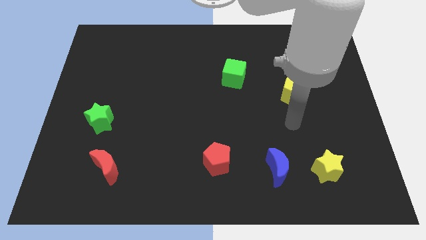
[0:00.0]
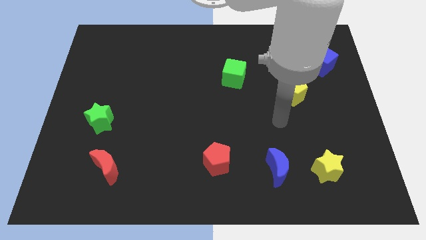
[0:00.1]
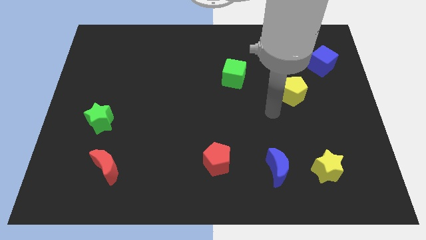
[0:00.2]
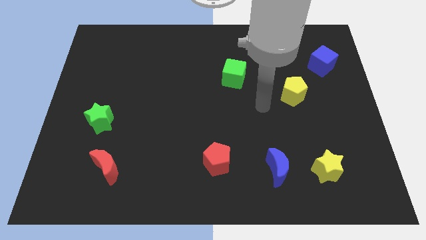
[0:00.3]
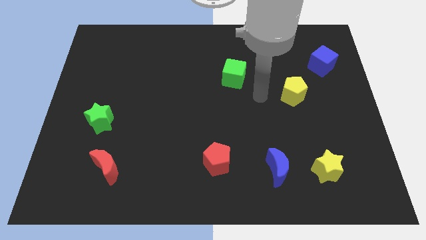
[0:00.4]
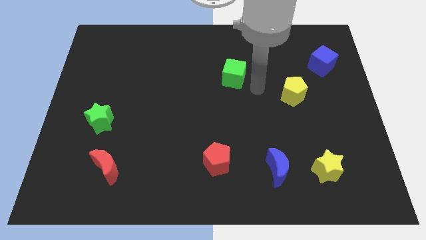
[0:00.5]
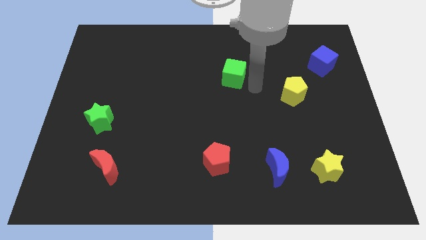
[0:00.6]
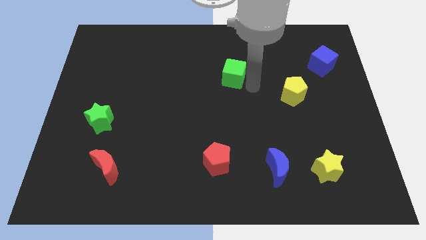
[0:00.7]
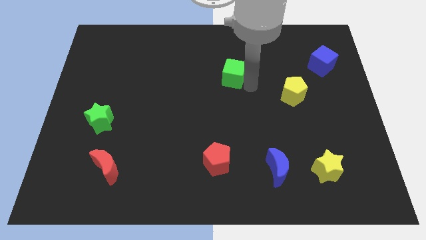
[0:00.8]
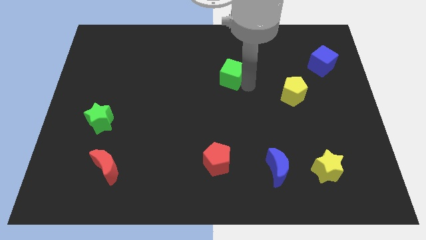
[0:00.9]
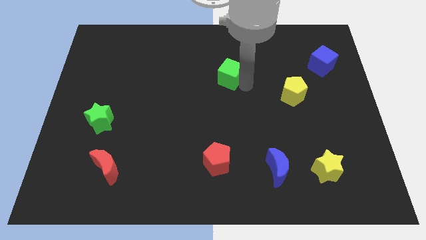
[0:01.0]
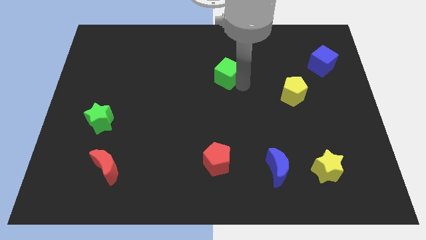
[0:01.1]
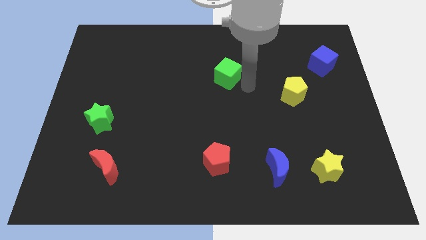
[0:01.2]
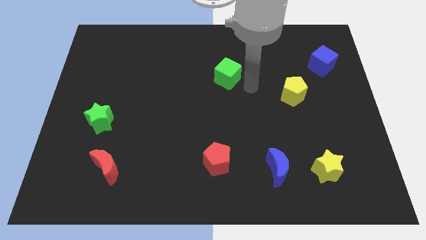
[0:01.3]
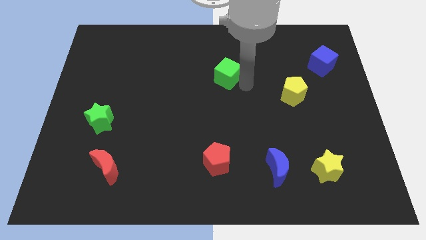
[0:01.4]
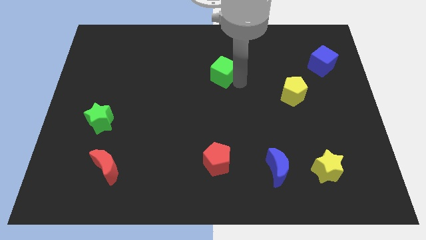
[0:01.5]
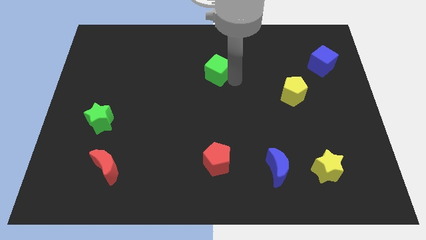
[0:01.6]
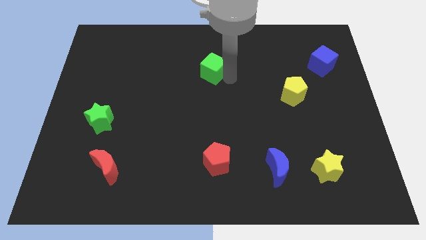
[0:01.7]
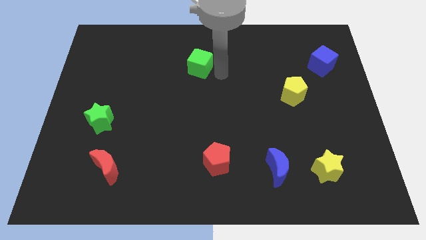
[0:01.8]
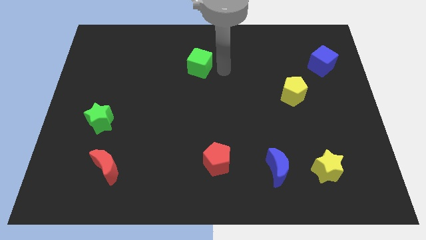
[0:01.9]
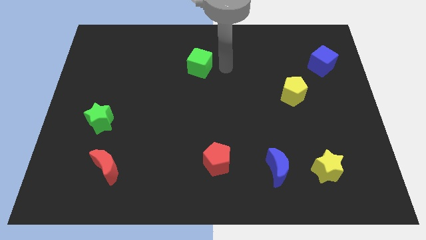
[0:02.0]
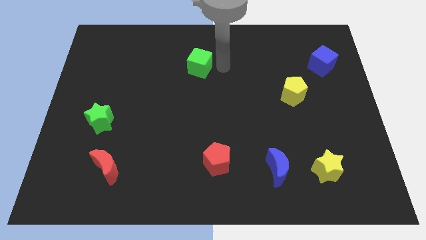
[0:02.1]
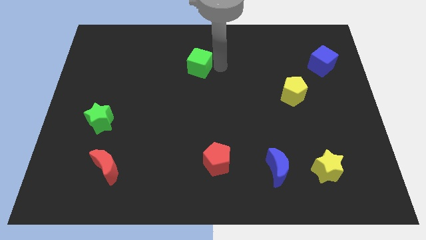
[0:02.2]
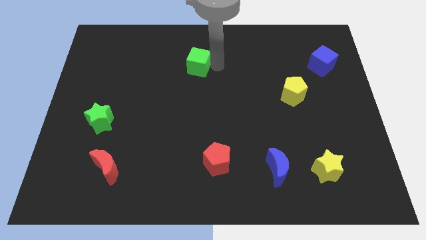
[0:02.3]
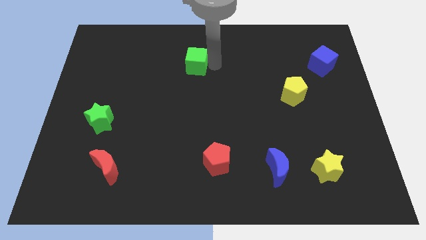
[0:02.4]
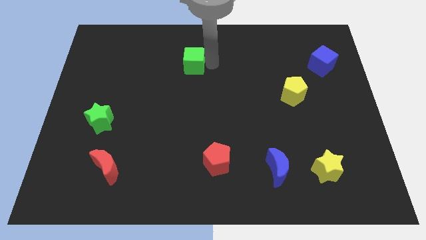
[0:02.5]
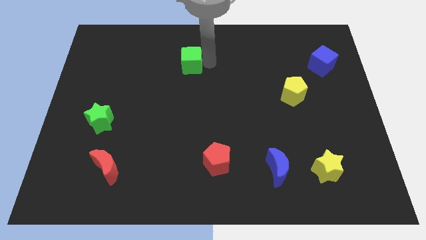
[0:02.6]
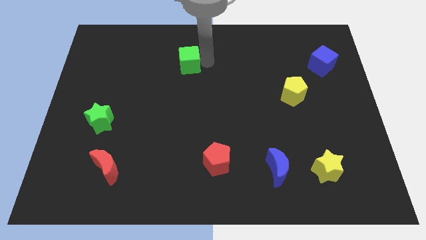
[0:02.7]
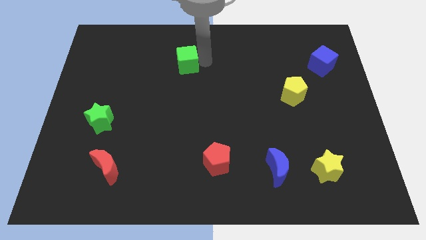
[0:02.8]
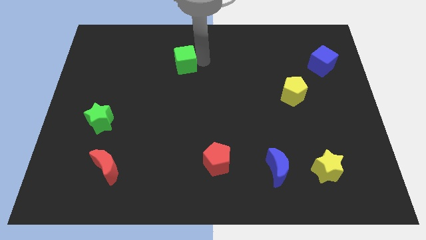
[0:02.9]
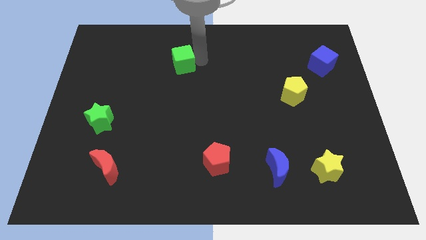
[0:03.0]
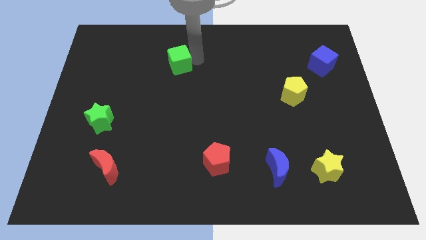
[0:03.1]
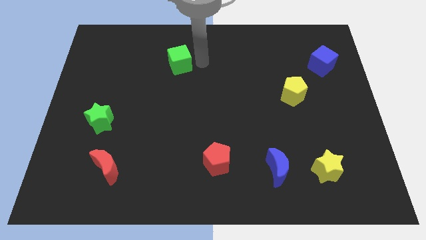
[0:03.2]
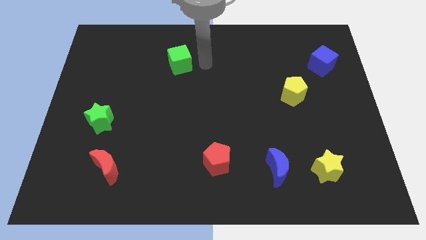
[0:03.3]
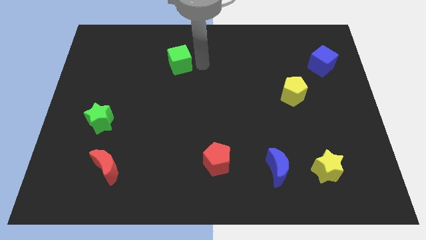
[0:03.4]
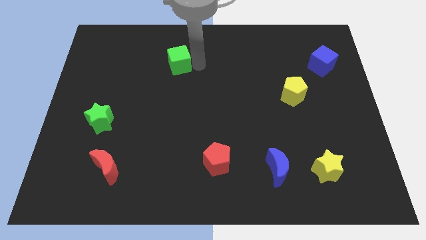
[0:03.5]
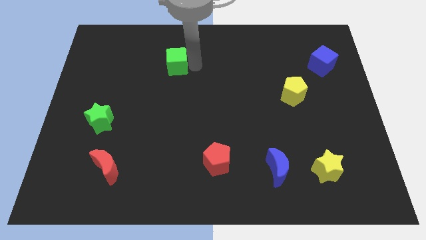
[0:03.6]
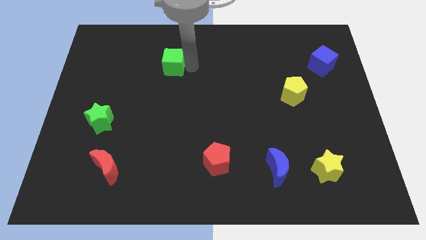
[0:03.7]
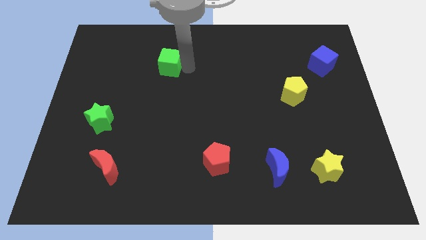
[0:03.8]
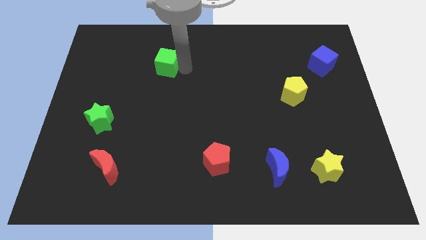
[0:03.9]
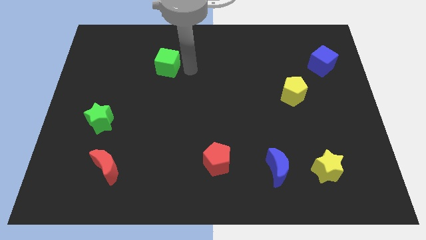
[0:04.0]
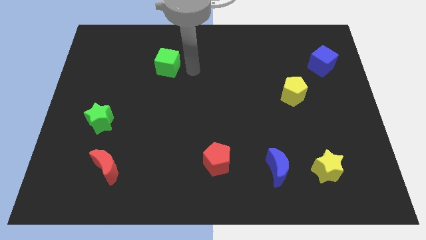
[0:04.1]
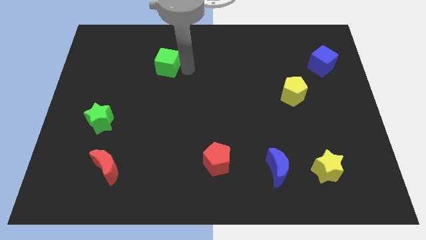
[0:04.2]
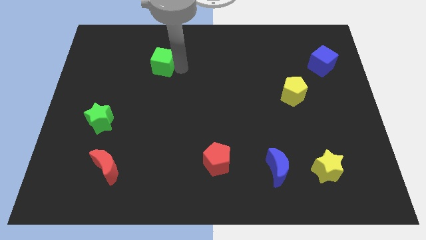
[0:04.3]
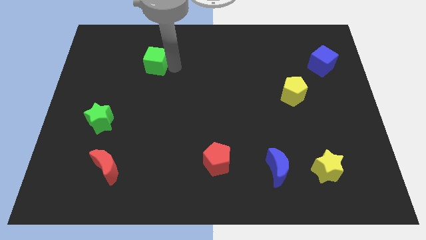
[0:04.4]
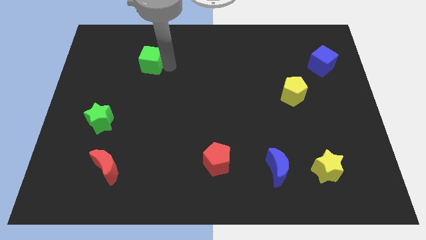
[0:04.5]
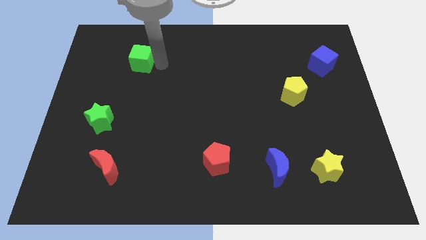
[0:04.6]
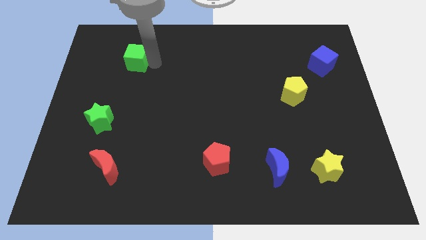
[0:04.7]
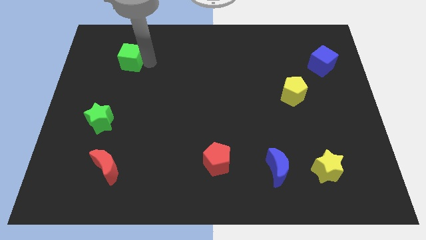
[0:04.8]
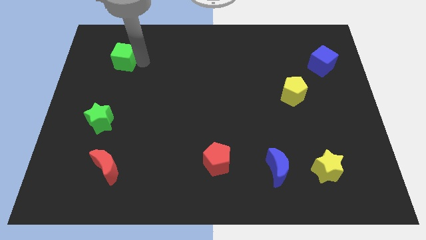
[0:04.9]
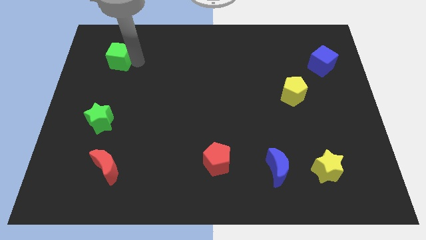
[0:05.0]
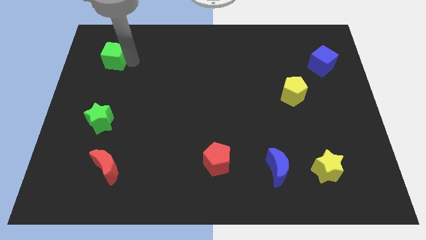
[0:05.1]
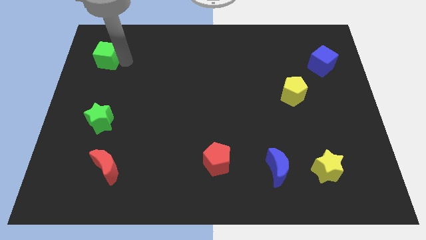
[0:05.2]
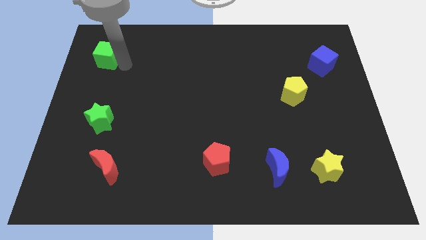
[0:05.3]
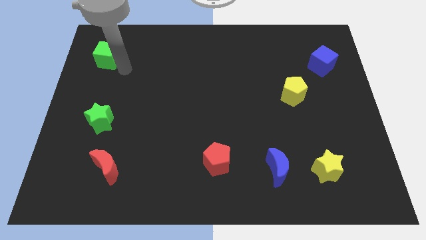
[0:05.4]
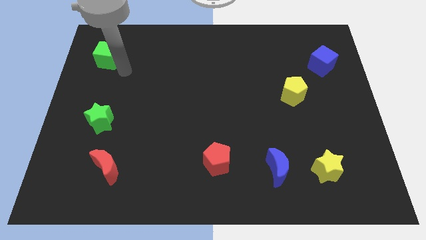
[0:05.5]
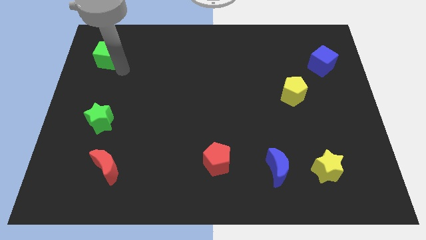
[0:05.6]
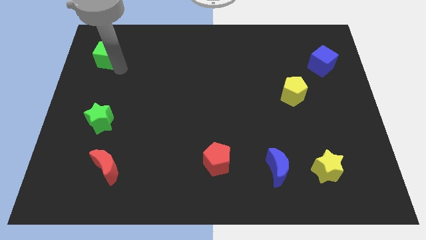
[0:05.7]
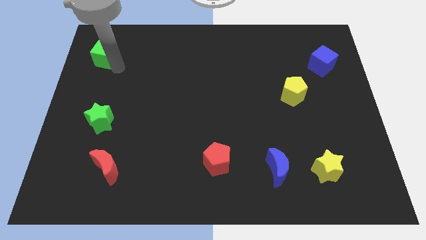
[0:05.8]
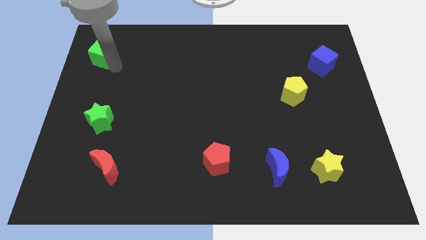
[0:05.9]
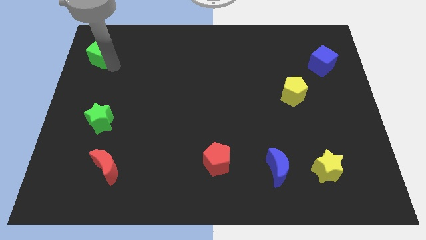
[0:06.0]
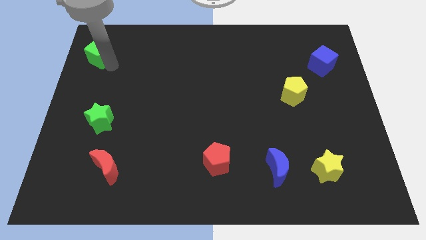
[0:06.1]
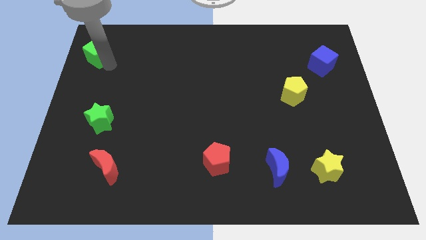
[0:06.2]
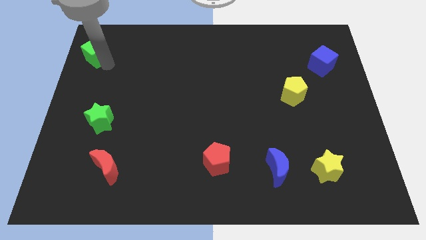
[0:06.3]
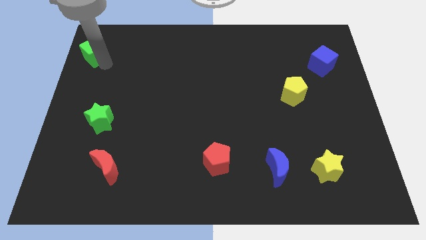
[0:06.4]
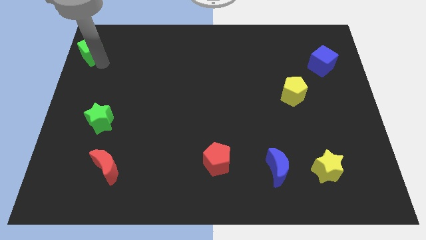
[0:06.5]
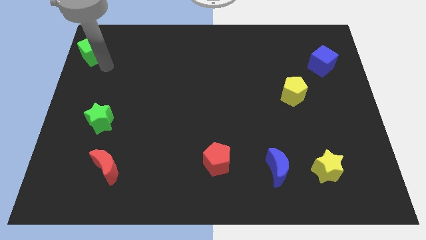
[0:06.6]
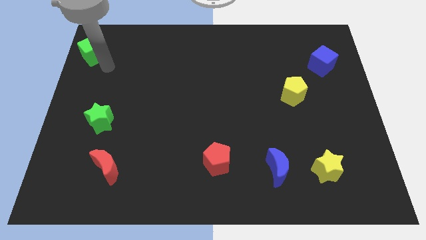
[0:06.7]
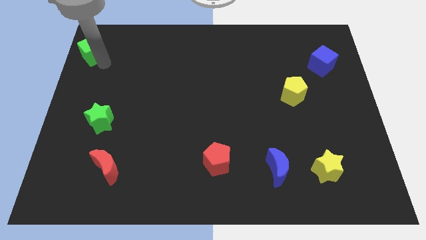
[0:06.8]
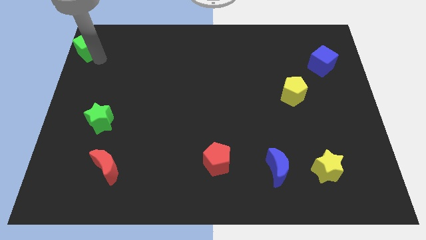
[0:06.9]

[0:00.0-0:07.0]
put the green cube to the upper left corner
